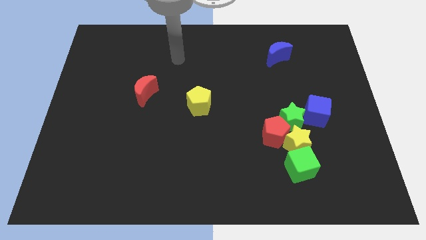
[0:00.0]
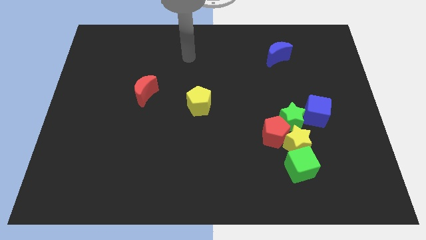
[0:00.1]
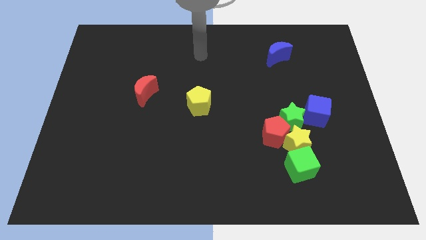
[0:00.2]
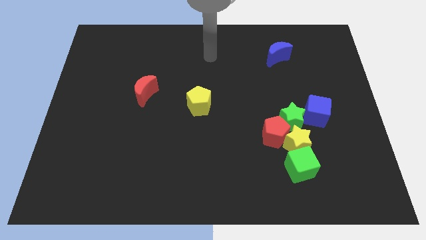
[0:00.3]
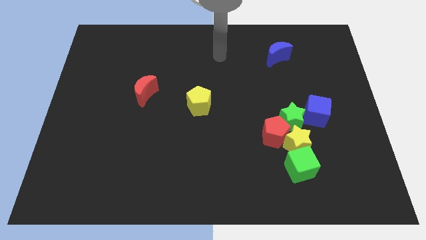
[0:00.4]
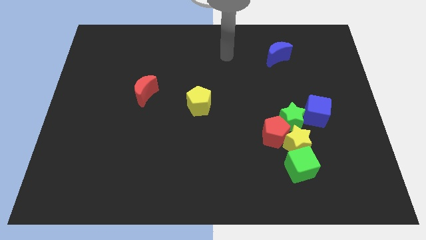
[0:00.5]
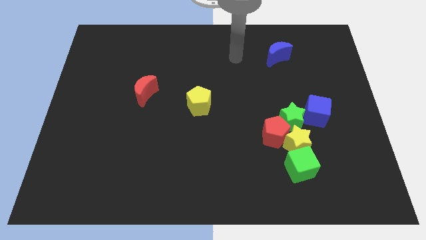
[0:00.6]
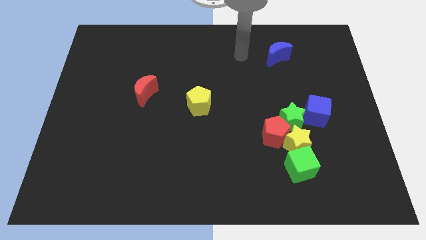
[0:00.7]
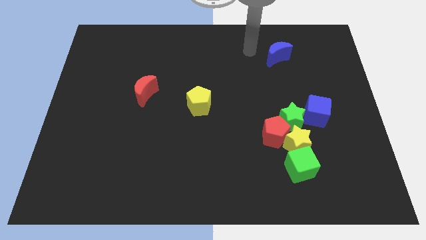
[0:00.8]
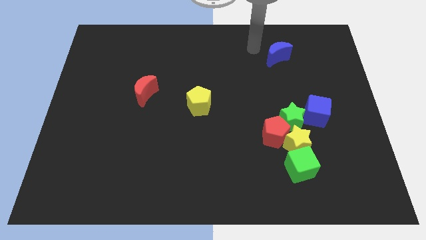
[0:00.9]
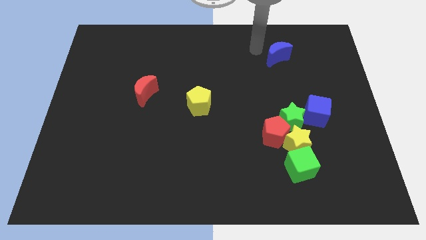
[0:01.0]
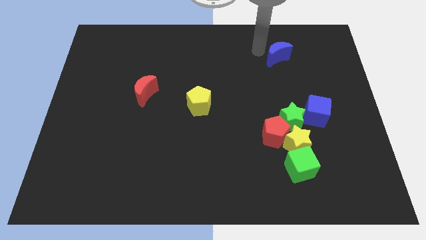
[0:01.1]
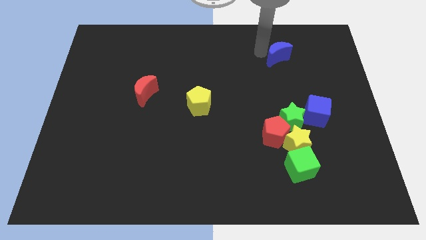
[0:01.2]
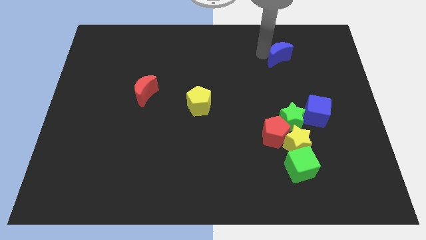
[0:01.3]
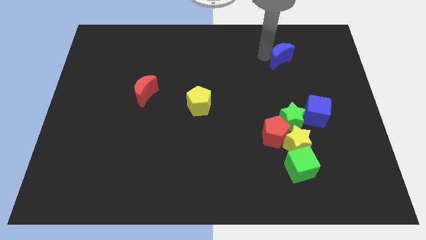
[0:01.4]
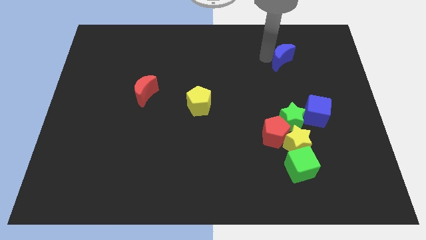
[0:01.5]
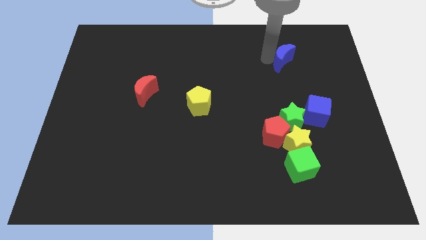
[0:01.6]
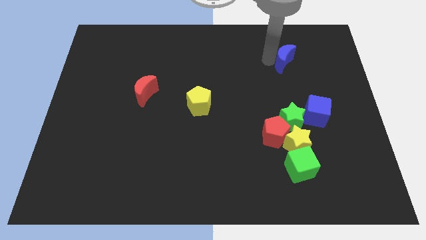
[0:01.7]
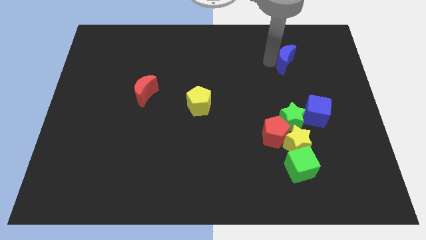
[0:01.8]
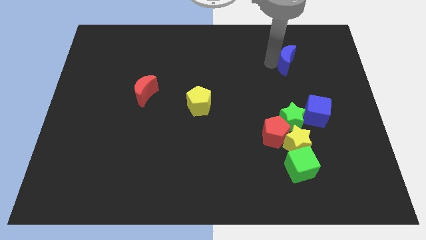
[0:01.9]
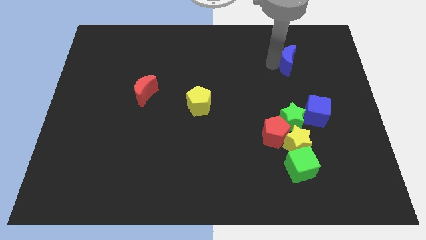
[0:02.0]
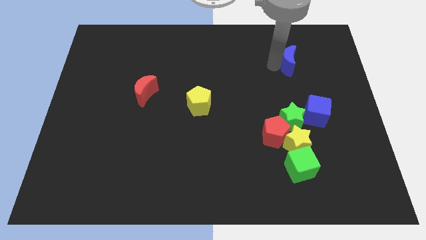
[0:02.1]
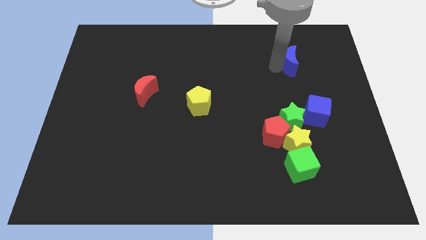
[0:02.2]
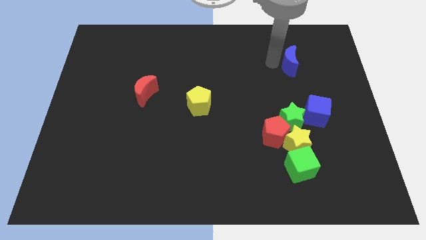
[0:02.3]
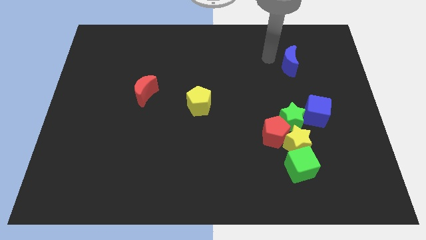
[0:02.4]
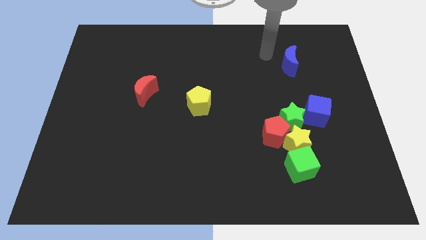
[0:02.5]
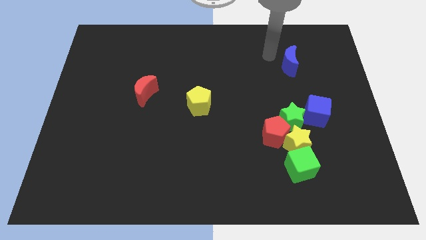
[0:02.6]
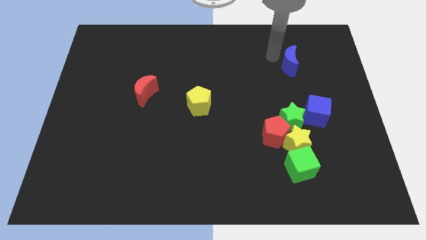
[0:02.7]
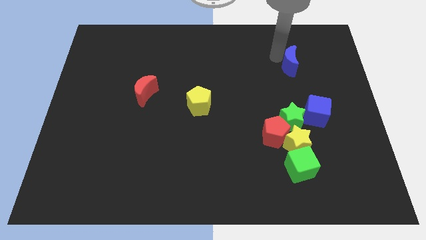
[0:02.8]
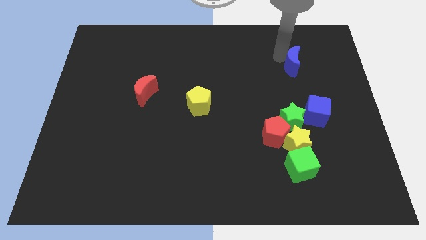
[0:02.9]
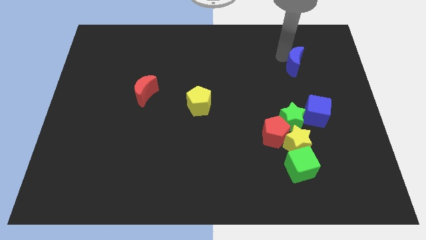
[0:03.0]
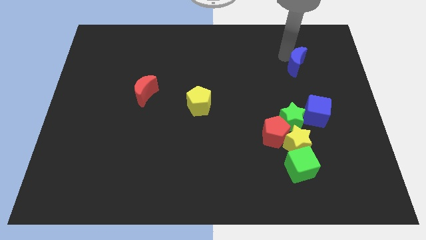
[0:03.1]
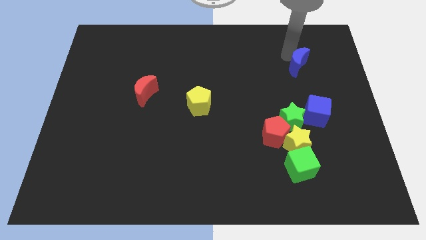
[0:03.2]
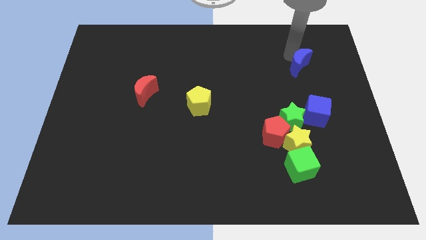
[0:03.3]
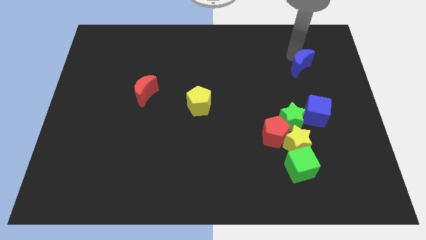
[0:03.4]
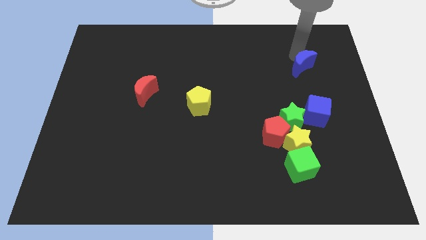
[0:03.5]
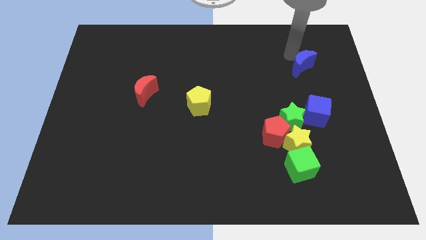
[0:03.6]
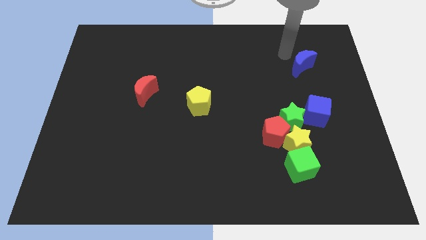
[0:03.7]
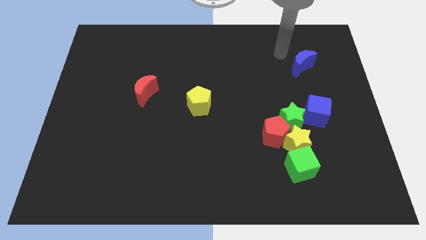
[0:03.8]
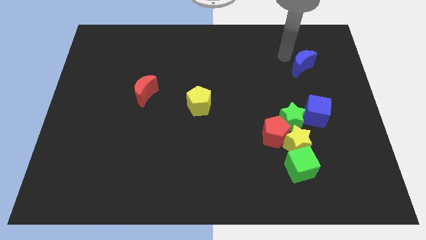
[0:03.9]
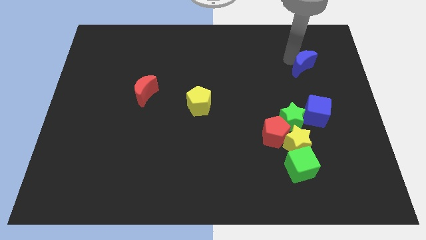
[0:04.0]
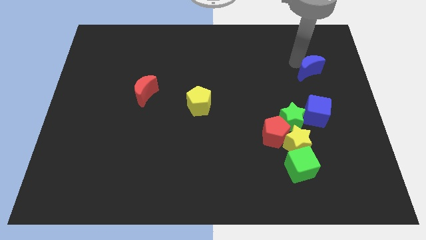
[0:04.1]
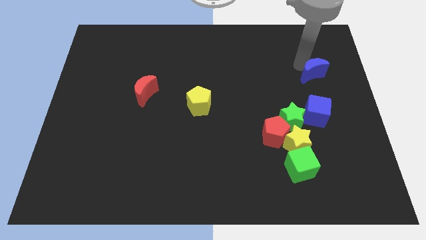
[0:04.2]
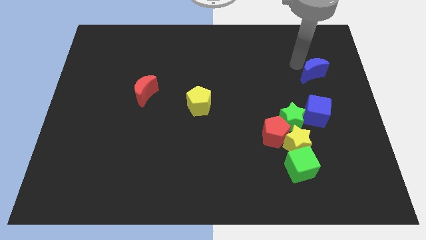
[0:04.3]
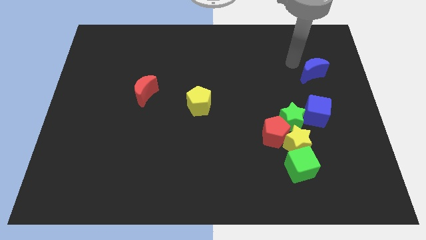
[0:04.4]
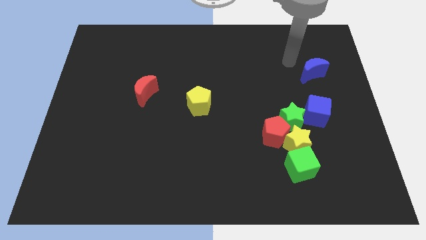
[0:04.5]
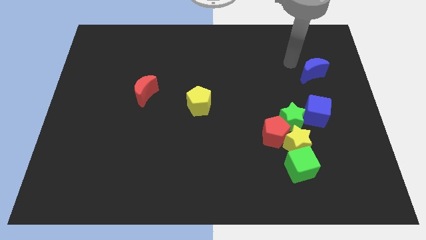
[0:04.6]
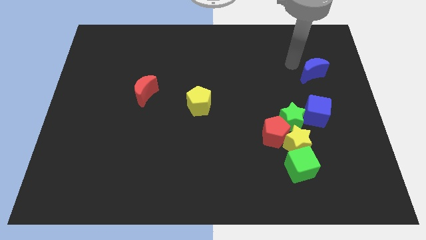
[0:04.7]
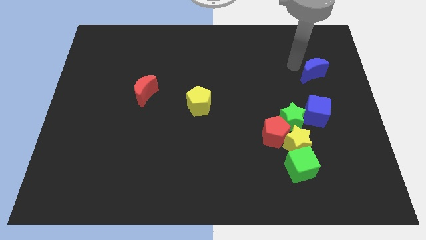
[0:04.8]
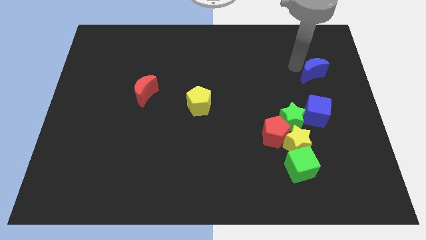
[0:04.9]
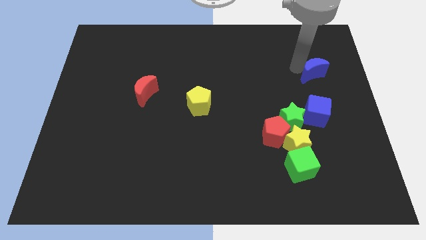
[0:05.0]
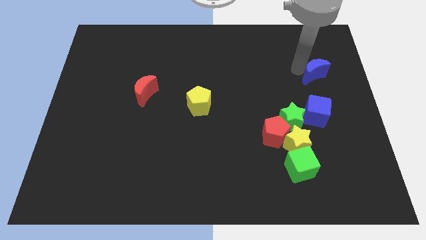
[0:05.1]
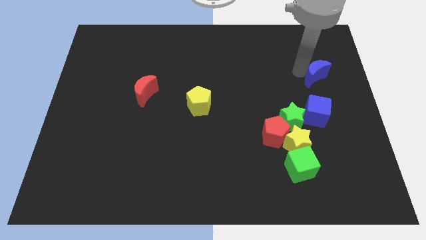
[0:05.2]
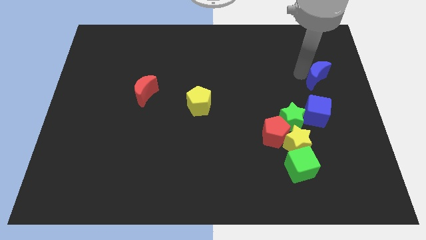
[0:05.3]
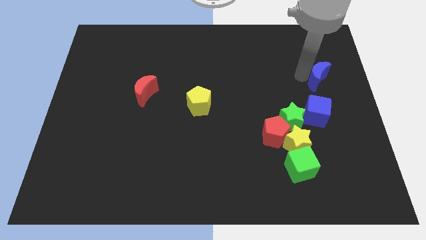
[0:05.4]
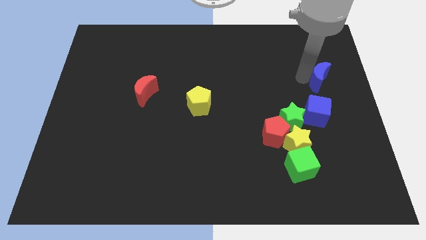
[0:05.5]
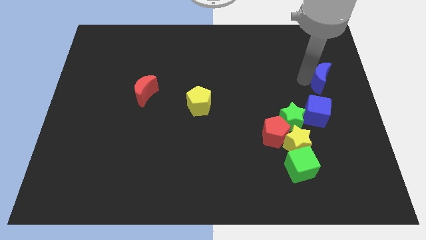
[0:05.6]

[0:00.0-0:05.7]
move the blue moon to the right side of the board

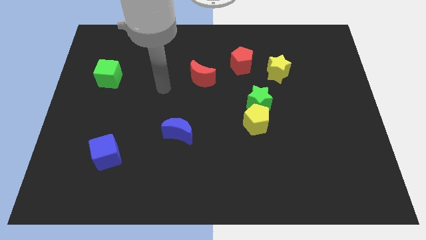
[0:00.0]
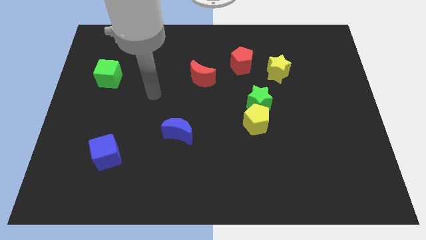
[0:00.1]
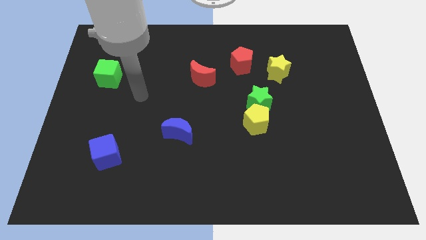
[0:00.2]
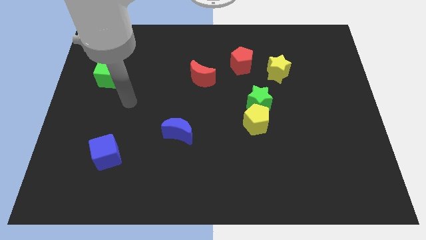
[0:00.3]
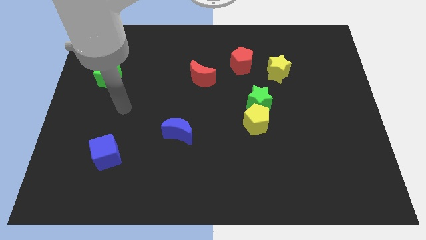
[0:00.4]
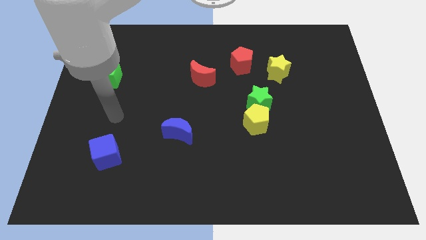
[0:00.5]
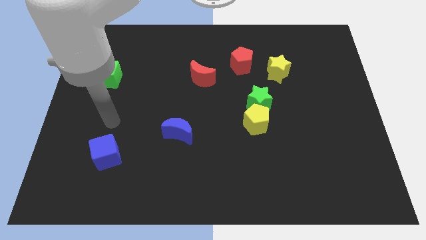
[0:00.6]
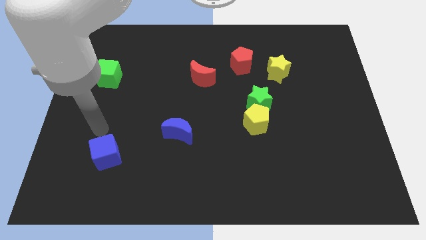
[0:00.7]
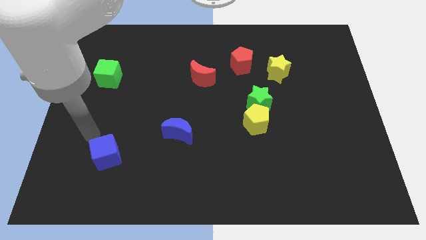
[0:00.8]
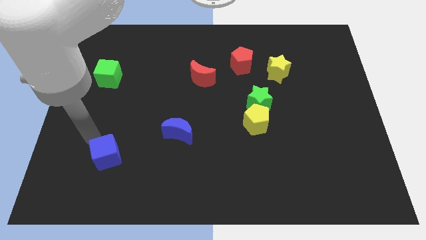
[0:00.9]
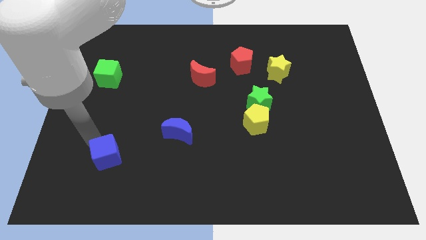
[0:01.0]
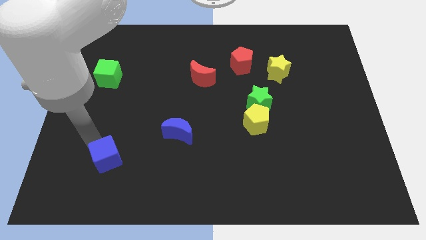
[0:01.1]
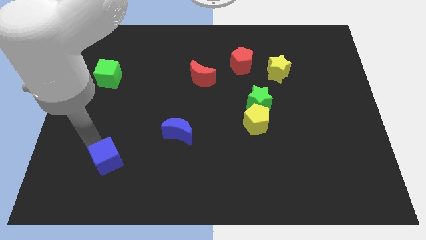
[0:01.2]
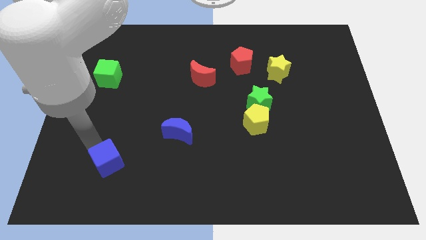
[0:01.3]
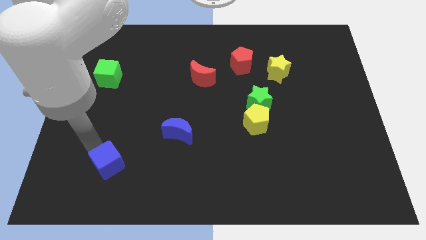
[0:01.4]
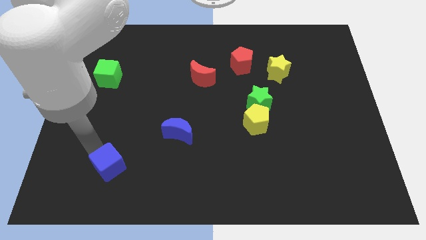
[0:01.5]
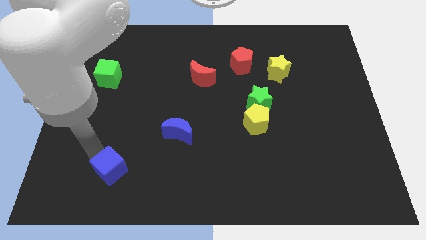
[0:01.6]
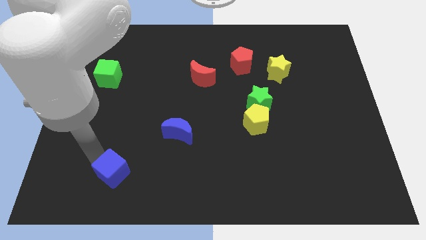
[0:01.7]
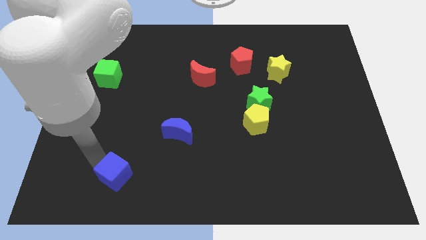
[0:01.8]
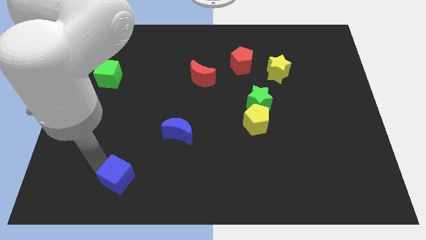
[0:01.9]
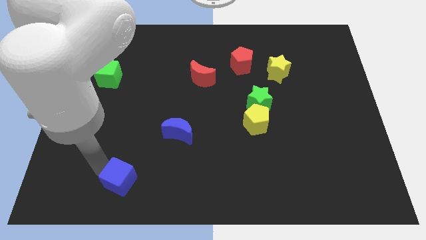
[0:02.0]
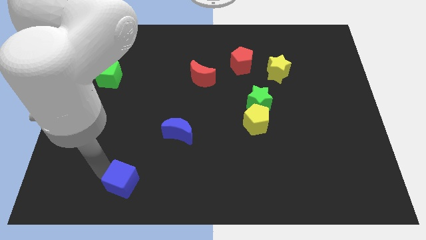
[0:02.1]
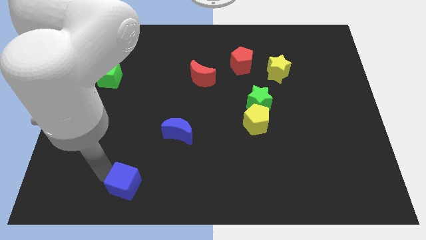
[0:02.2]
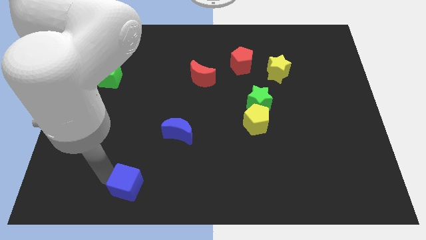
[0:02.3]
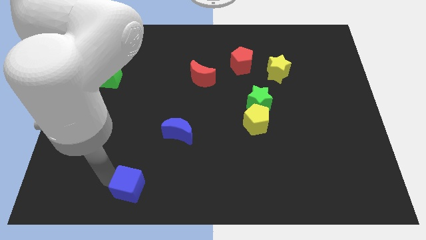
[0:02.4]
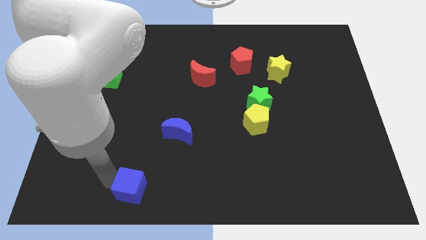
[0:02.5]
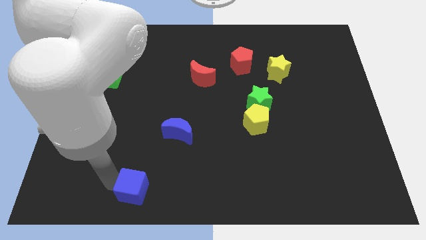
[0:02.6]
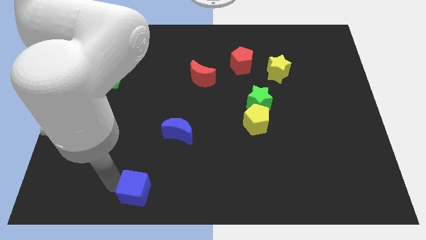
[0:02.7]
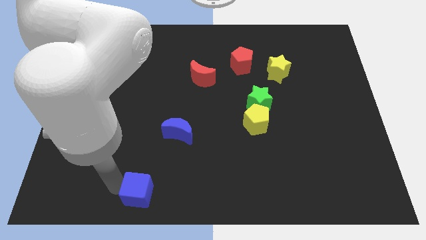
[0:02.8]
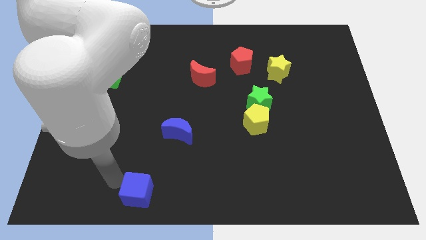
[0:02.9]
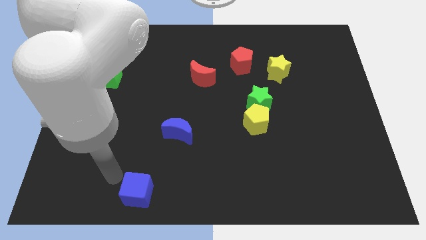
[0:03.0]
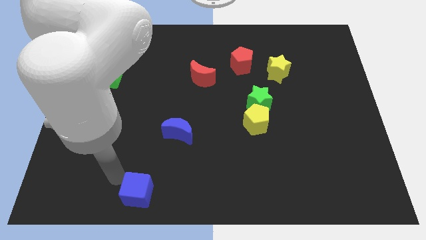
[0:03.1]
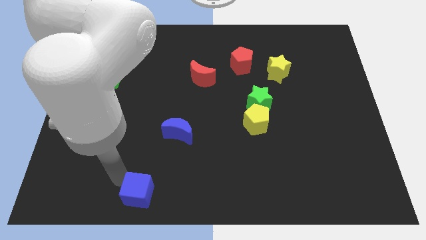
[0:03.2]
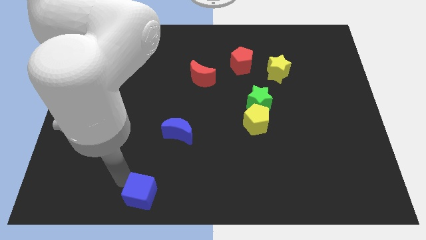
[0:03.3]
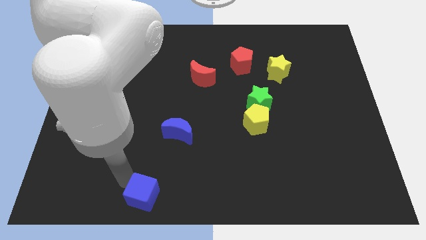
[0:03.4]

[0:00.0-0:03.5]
put the blue cube to the bottom
